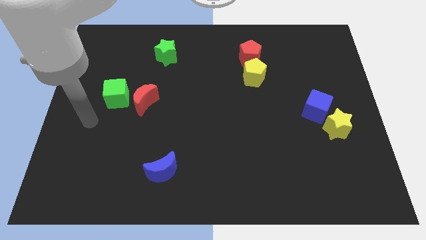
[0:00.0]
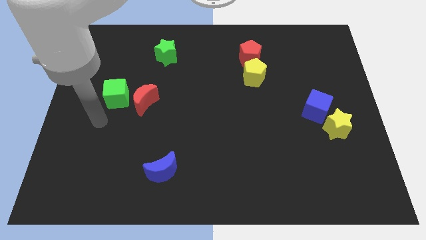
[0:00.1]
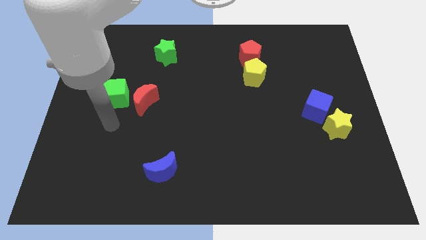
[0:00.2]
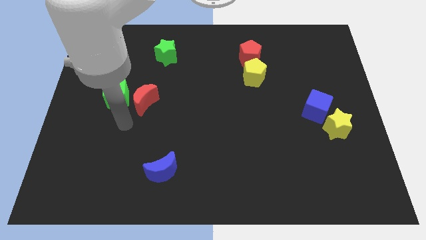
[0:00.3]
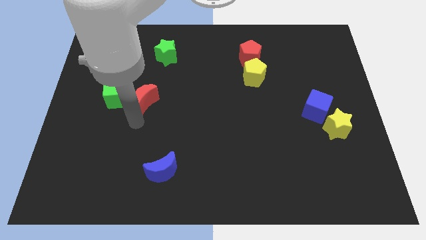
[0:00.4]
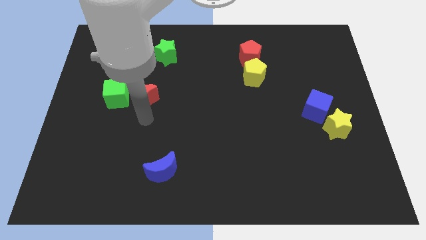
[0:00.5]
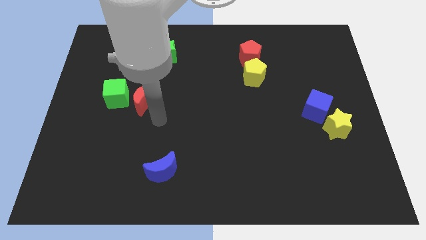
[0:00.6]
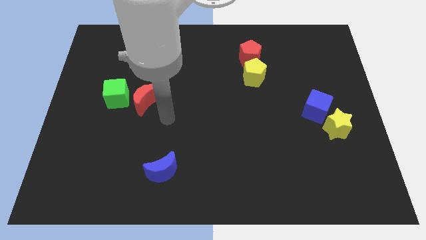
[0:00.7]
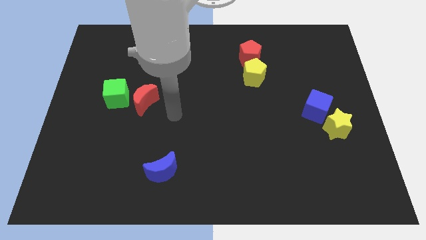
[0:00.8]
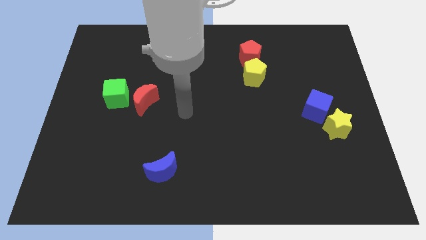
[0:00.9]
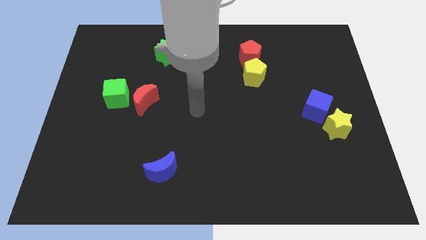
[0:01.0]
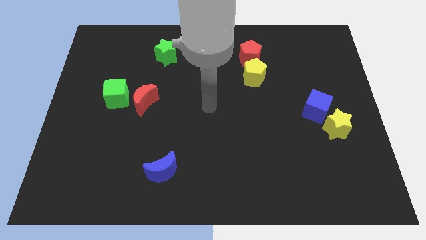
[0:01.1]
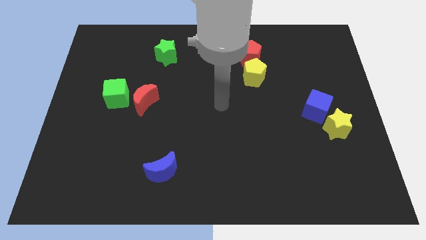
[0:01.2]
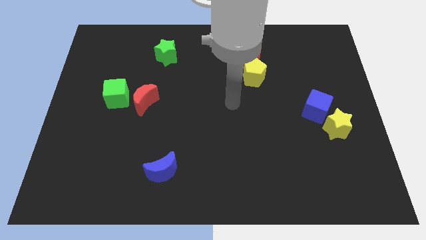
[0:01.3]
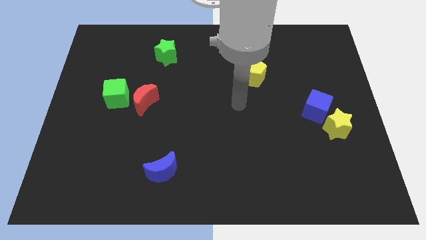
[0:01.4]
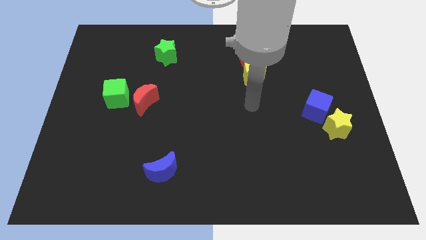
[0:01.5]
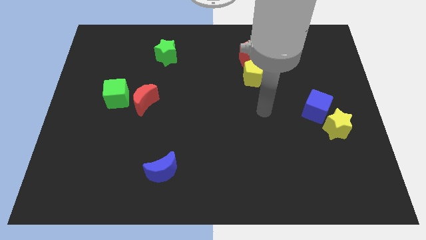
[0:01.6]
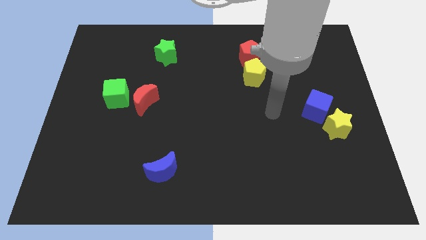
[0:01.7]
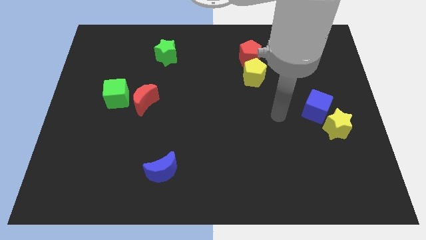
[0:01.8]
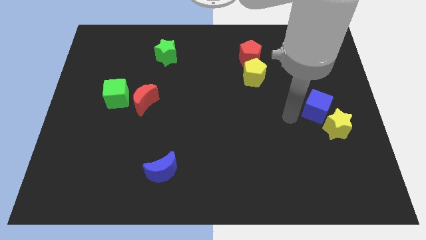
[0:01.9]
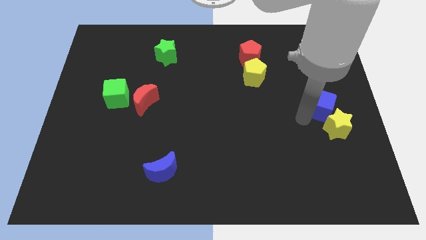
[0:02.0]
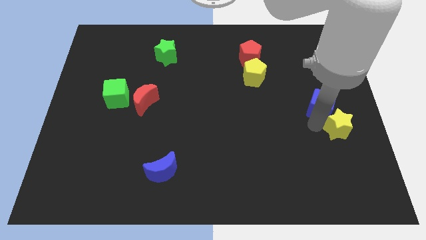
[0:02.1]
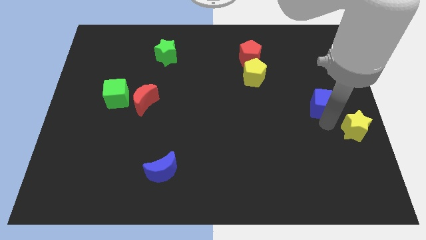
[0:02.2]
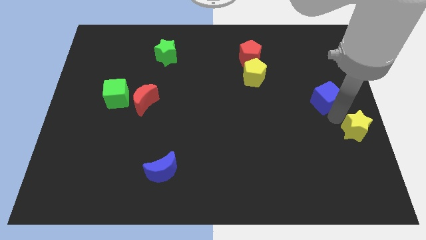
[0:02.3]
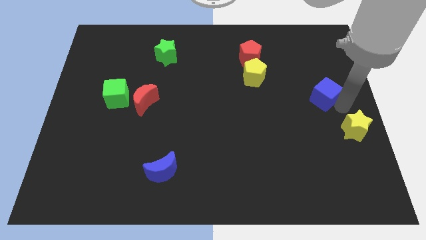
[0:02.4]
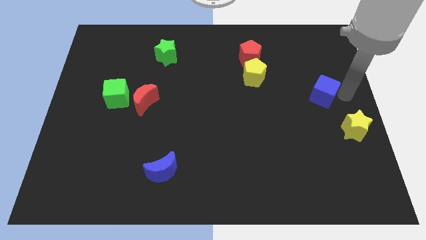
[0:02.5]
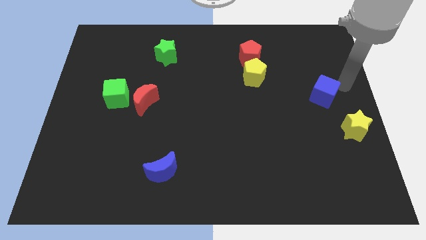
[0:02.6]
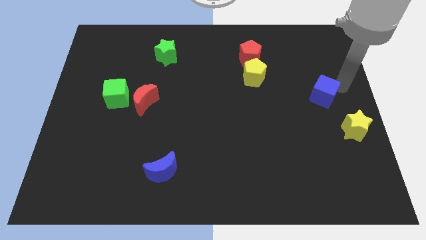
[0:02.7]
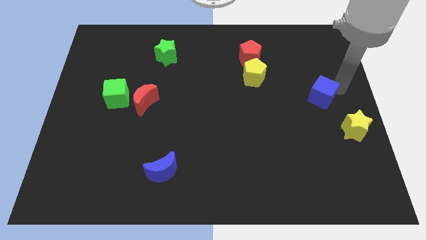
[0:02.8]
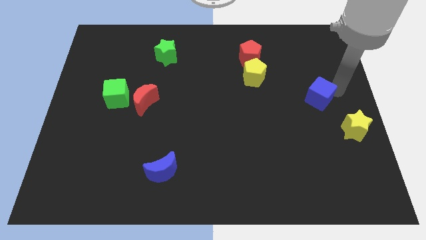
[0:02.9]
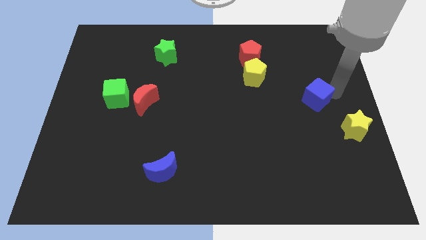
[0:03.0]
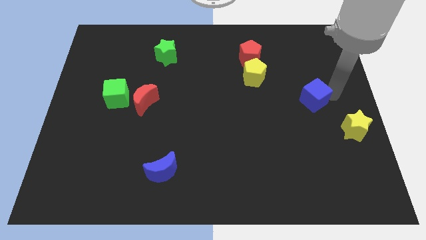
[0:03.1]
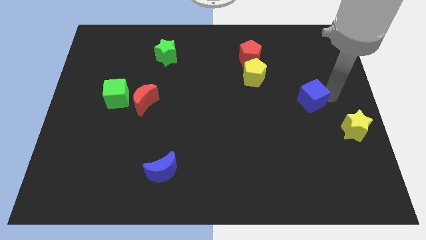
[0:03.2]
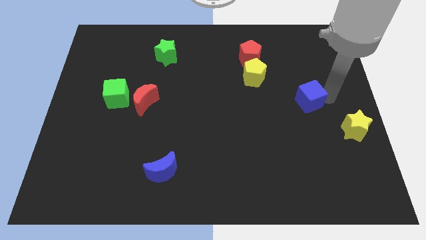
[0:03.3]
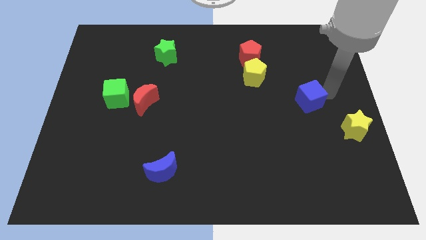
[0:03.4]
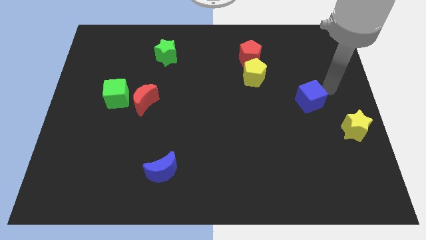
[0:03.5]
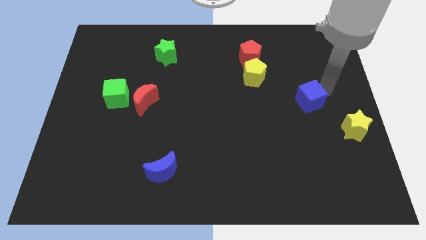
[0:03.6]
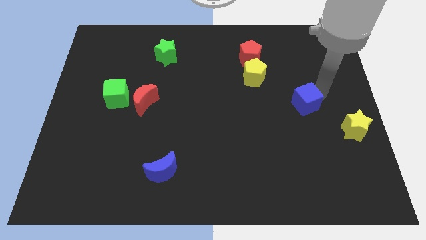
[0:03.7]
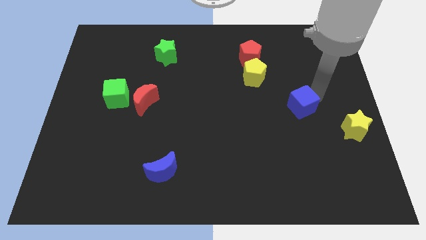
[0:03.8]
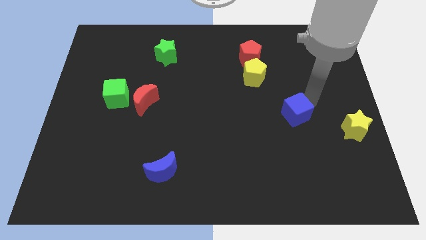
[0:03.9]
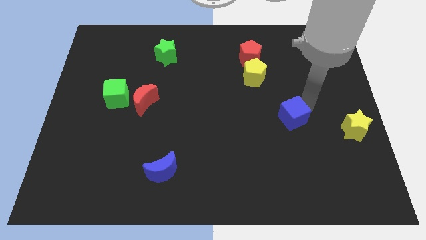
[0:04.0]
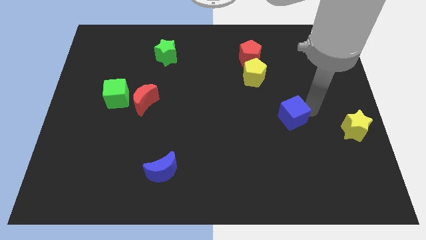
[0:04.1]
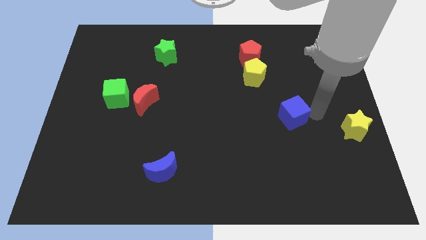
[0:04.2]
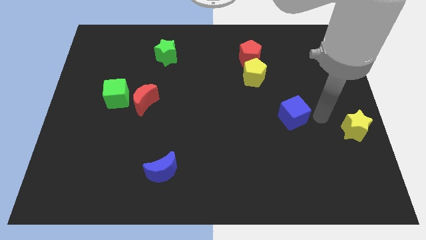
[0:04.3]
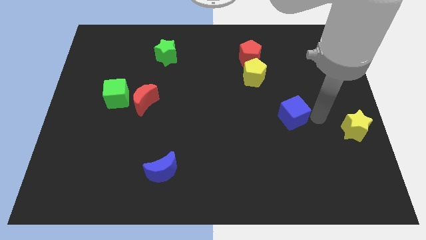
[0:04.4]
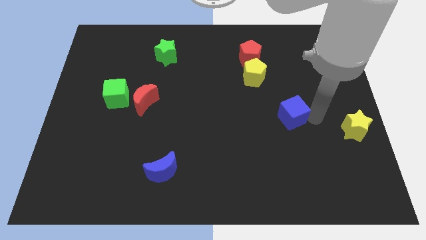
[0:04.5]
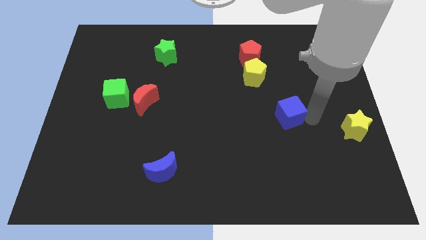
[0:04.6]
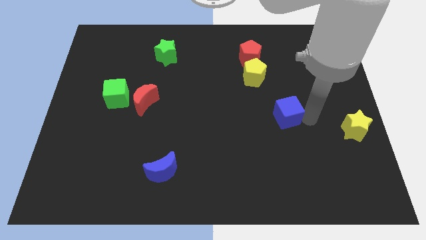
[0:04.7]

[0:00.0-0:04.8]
push the blue cube to the left a little bit

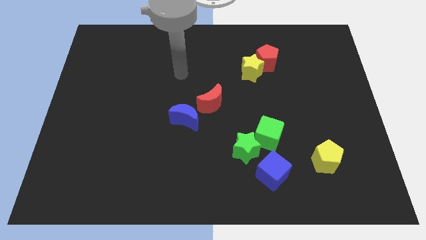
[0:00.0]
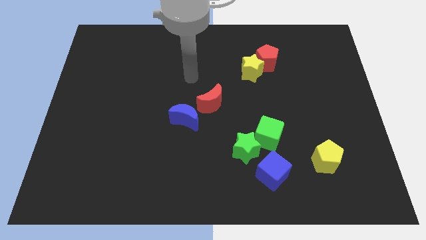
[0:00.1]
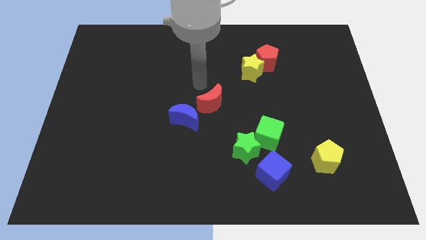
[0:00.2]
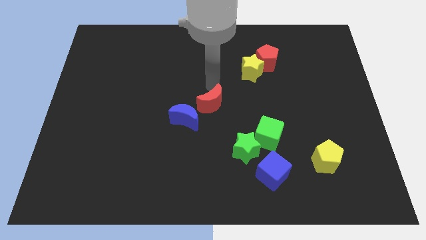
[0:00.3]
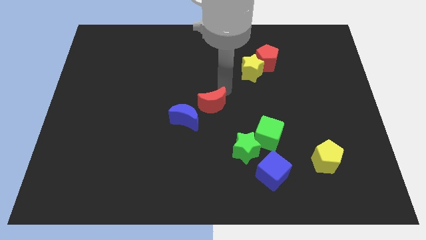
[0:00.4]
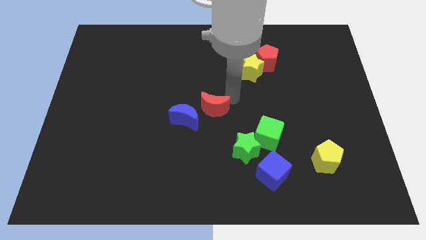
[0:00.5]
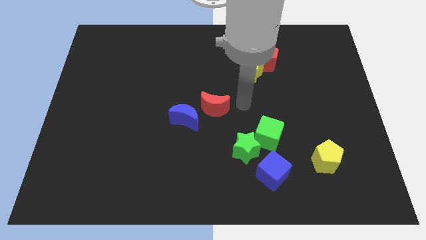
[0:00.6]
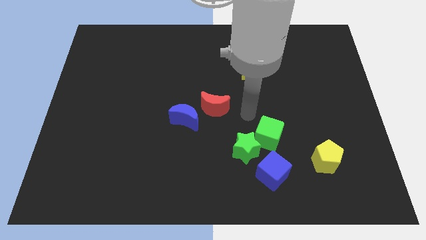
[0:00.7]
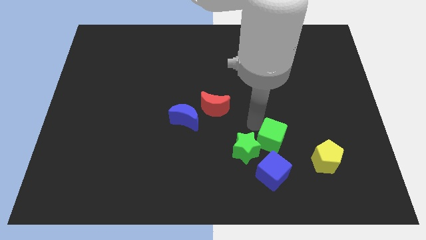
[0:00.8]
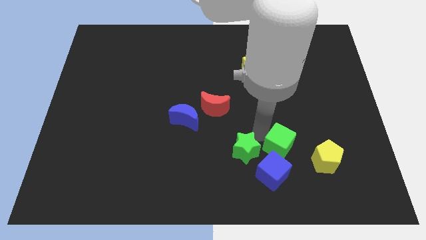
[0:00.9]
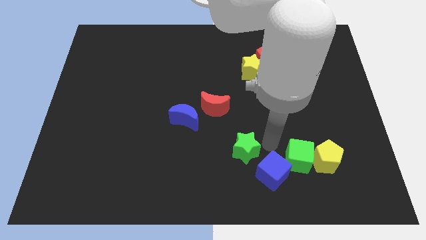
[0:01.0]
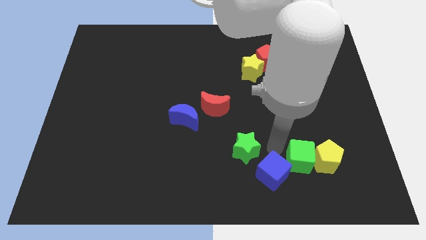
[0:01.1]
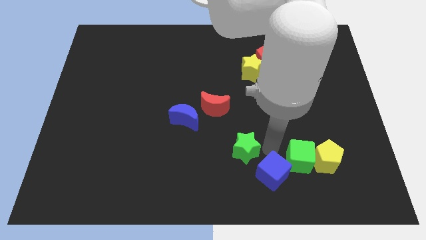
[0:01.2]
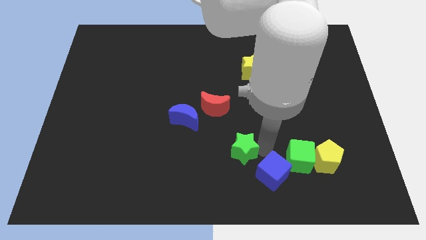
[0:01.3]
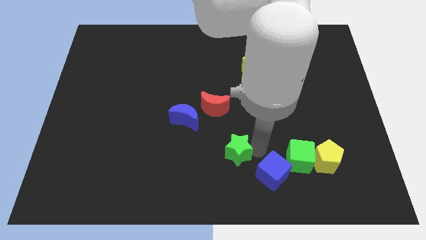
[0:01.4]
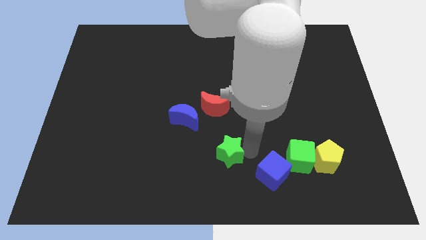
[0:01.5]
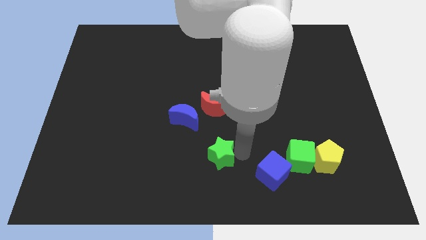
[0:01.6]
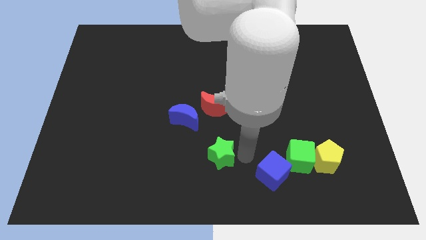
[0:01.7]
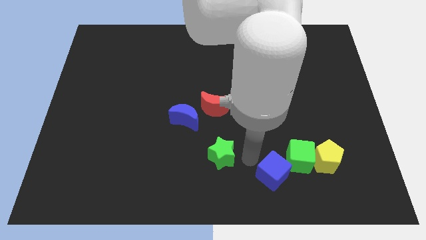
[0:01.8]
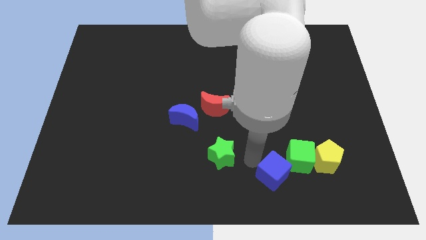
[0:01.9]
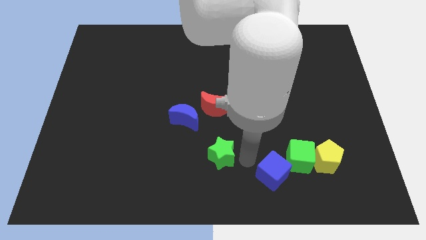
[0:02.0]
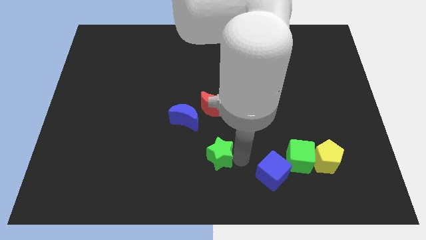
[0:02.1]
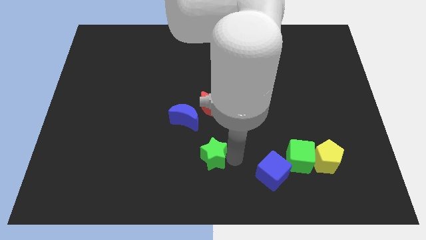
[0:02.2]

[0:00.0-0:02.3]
move the green star left slightly

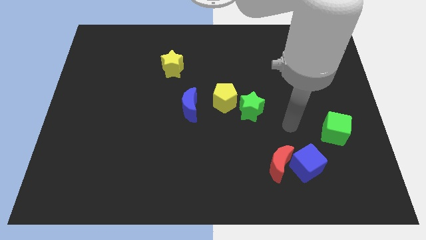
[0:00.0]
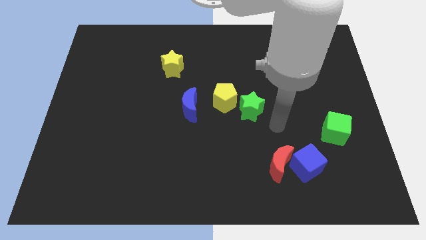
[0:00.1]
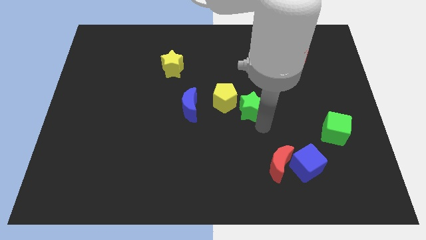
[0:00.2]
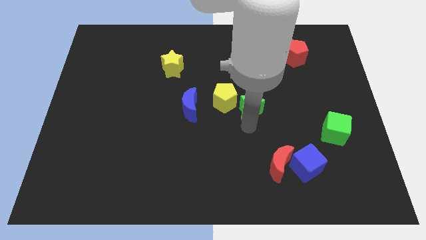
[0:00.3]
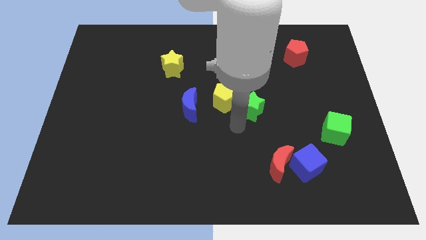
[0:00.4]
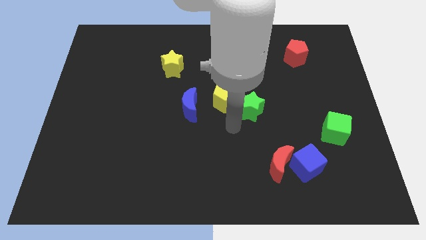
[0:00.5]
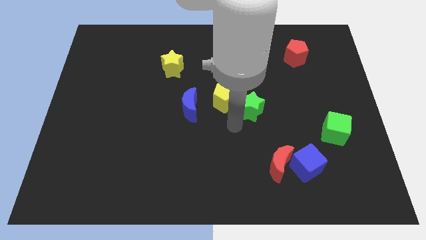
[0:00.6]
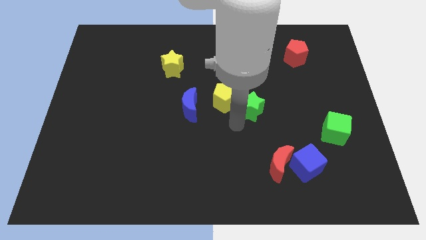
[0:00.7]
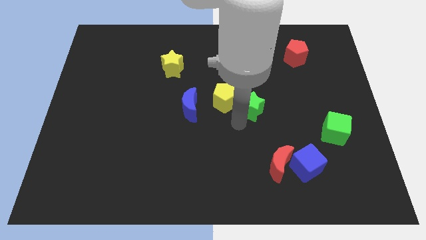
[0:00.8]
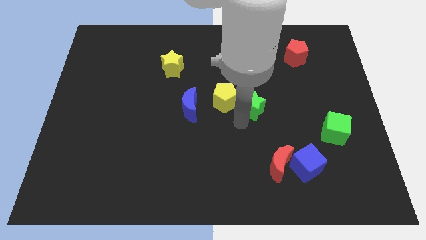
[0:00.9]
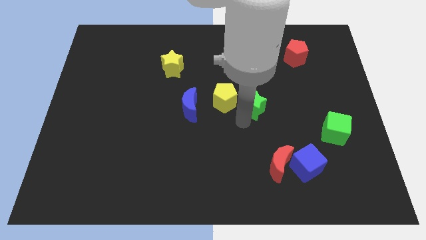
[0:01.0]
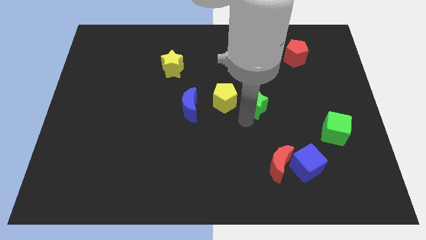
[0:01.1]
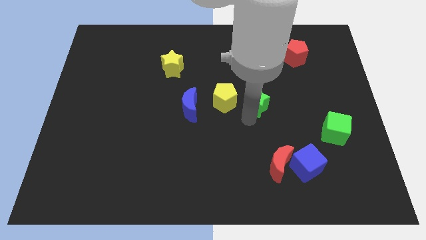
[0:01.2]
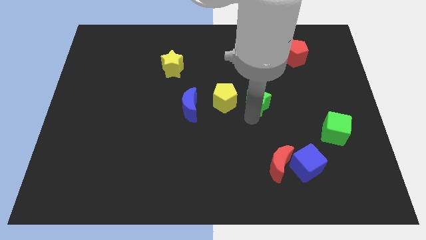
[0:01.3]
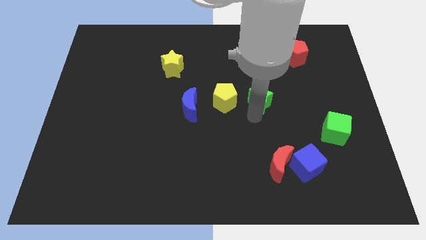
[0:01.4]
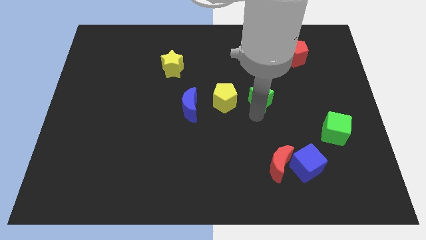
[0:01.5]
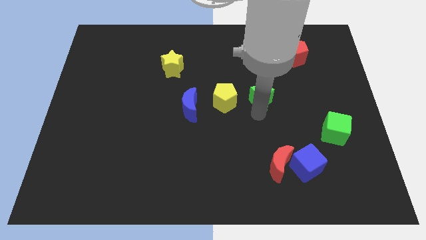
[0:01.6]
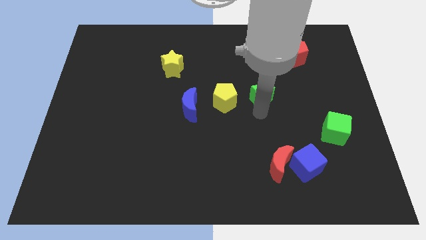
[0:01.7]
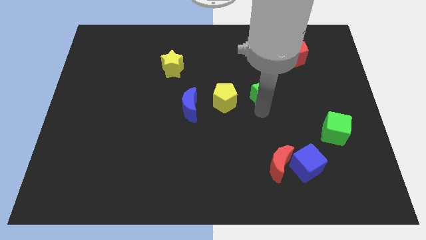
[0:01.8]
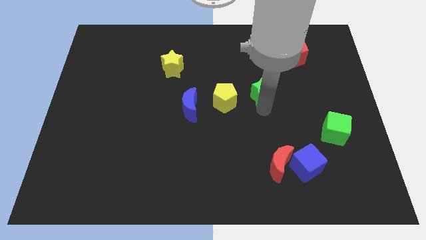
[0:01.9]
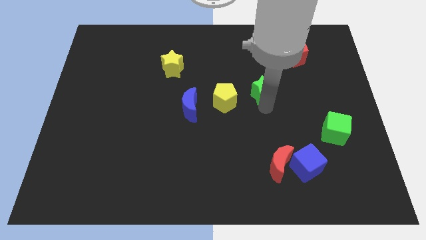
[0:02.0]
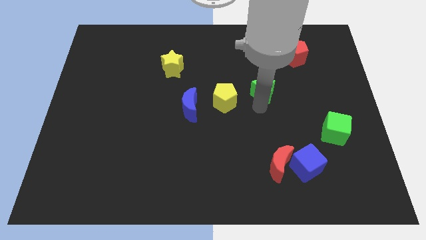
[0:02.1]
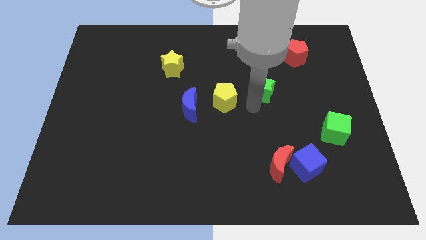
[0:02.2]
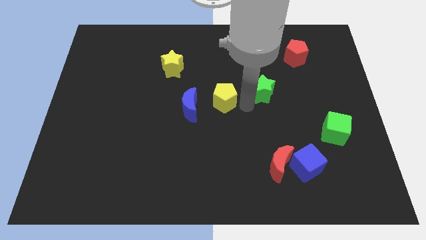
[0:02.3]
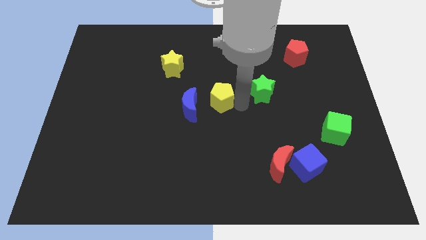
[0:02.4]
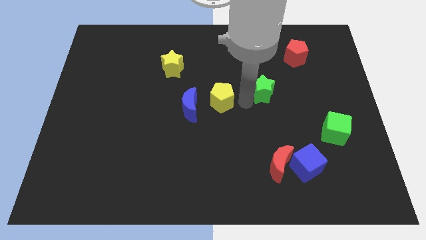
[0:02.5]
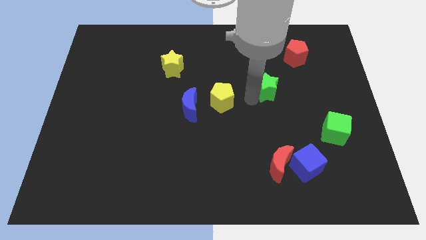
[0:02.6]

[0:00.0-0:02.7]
push the green star up and right slightly
